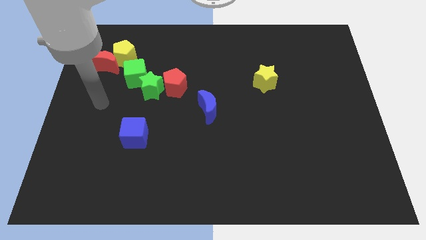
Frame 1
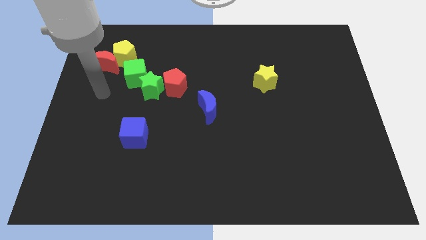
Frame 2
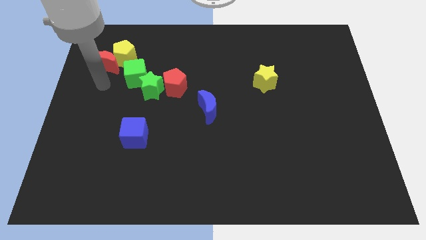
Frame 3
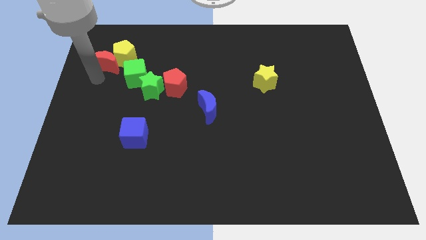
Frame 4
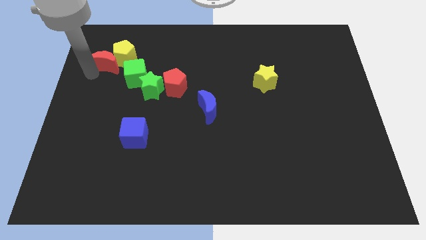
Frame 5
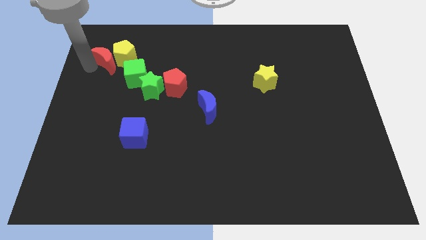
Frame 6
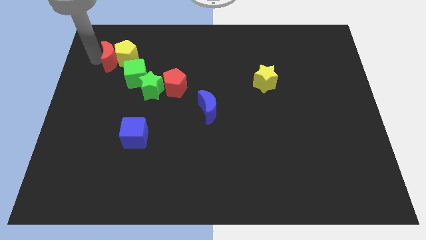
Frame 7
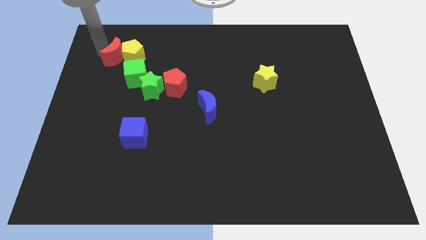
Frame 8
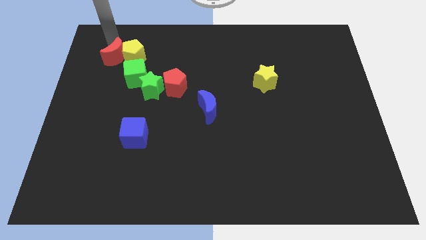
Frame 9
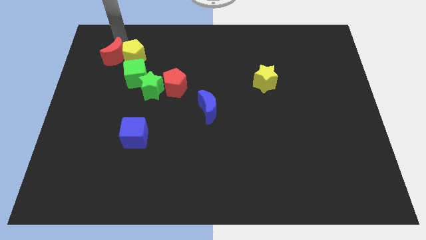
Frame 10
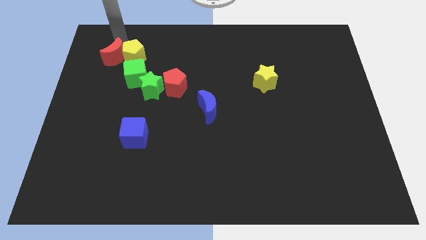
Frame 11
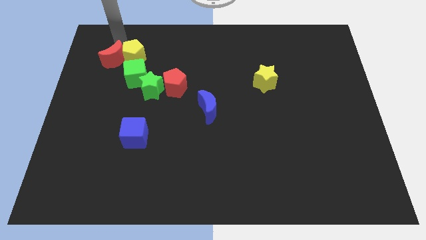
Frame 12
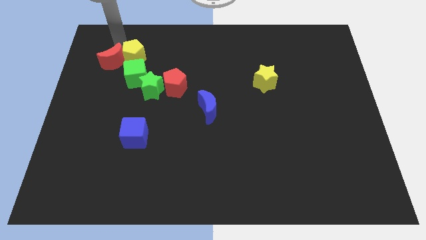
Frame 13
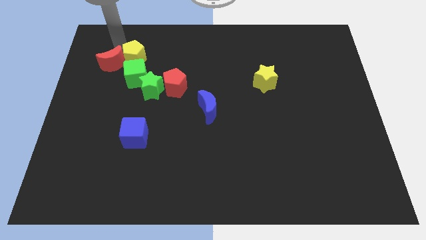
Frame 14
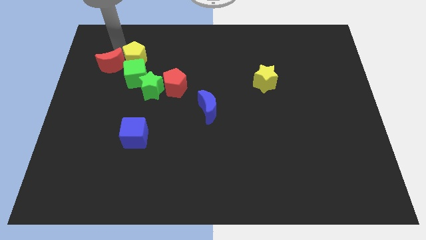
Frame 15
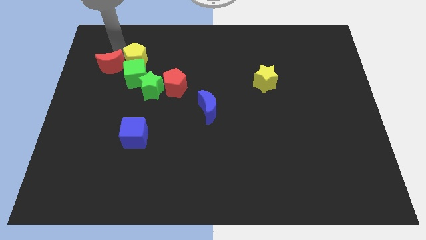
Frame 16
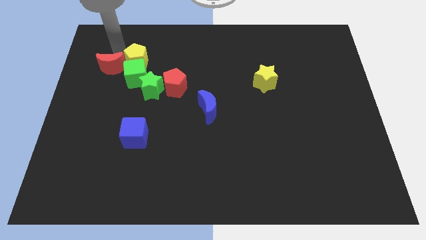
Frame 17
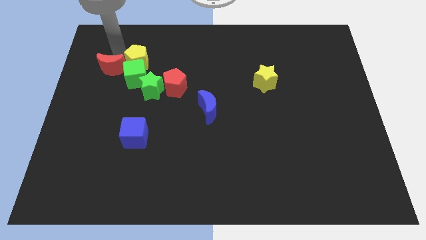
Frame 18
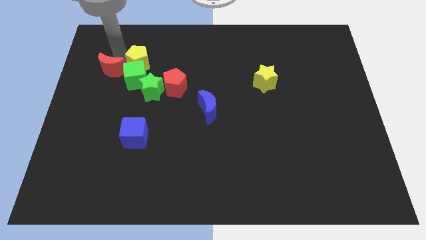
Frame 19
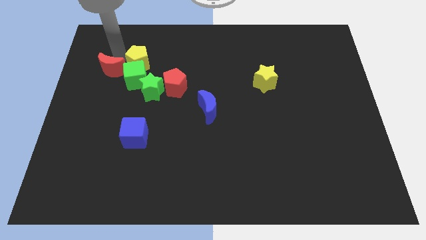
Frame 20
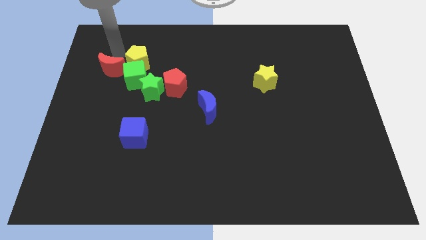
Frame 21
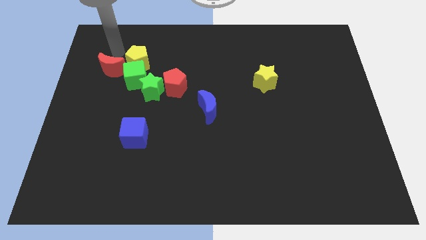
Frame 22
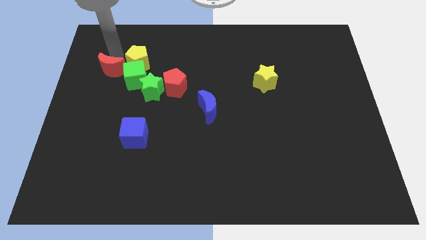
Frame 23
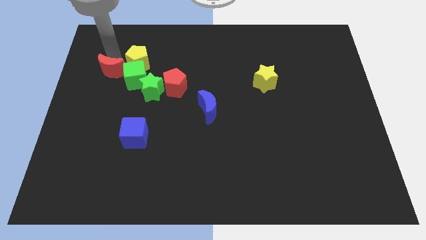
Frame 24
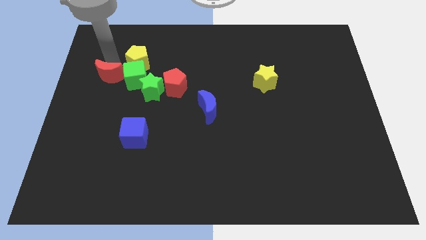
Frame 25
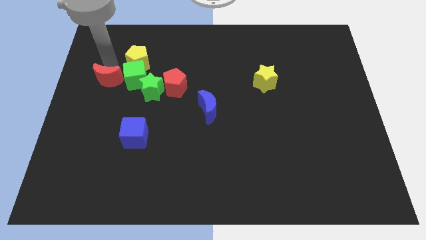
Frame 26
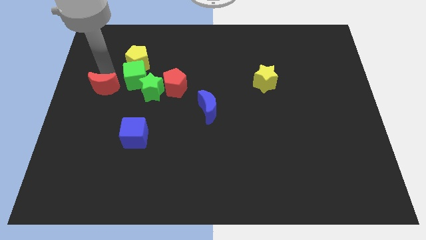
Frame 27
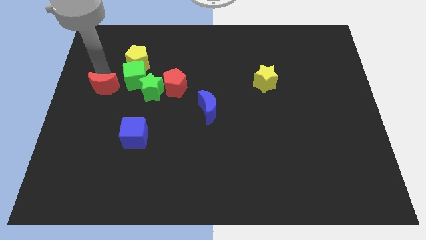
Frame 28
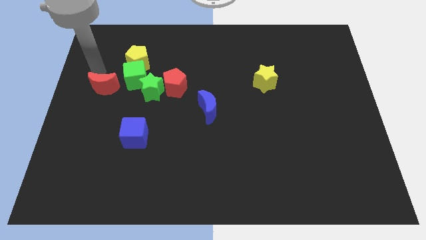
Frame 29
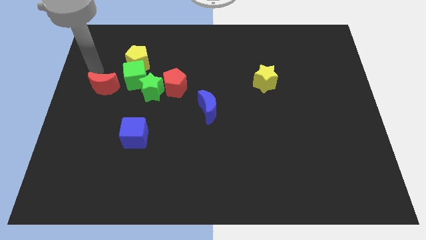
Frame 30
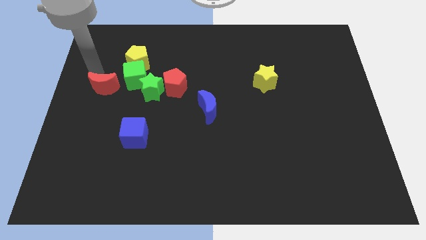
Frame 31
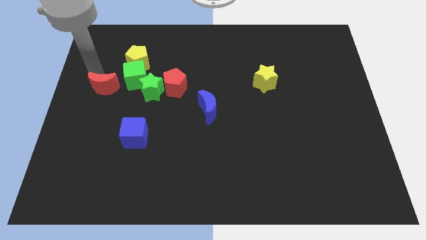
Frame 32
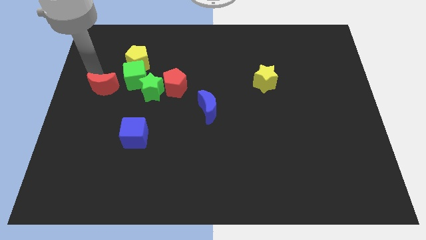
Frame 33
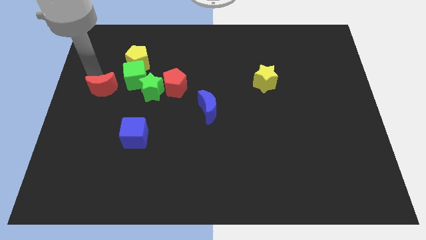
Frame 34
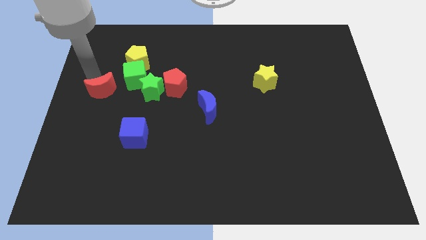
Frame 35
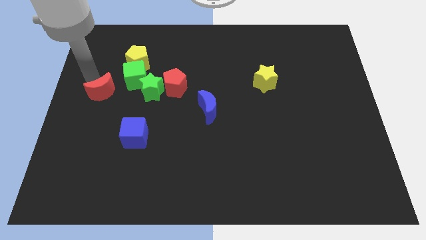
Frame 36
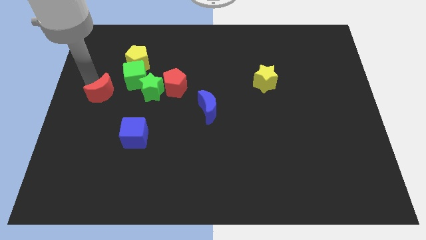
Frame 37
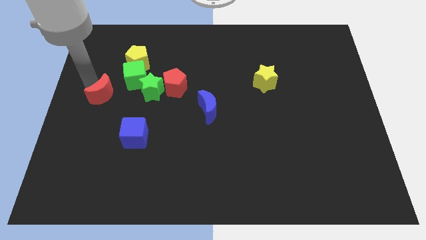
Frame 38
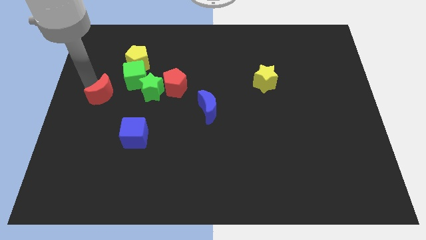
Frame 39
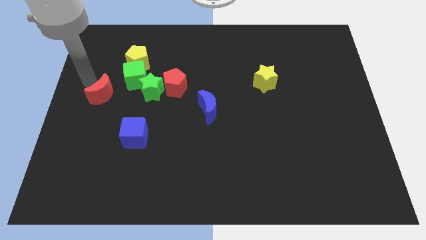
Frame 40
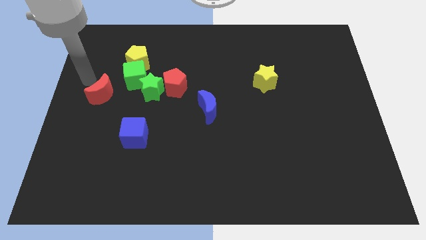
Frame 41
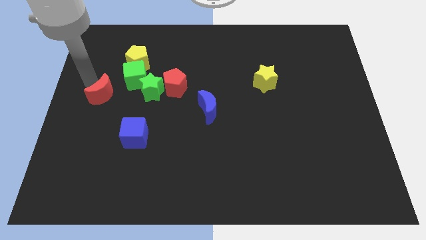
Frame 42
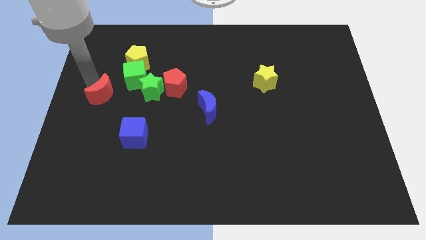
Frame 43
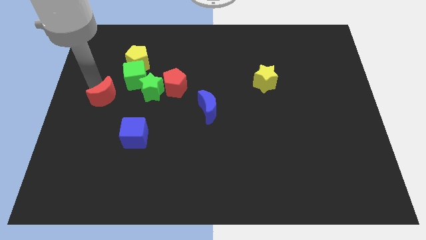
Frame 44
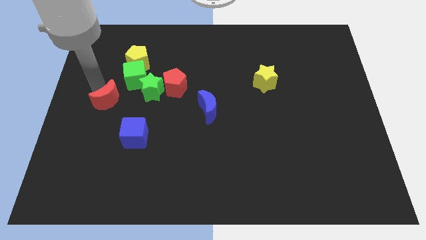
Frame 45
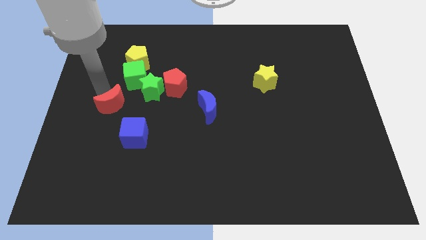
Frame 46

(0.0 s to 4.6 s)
slide the red moon diagonally up and to the left of the blue cube

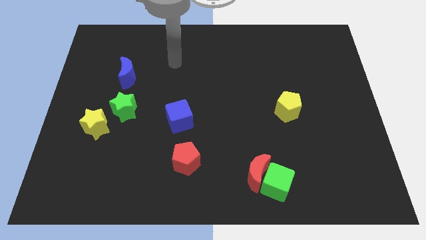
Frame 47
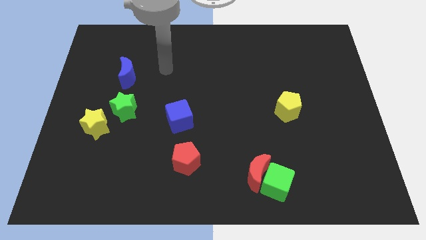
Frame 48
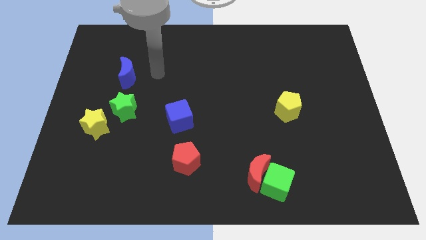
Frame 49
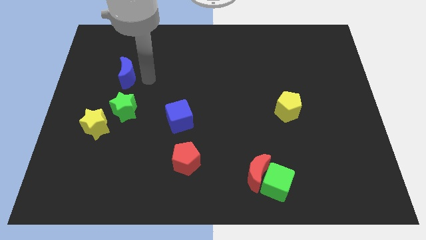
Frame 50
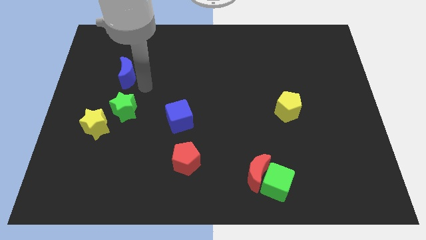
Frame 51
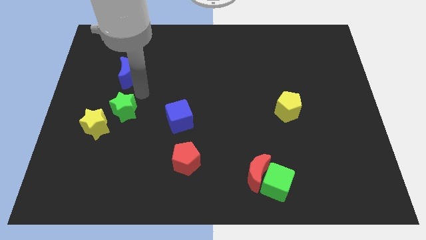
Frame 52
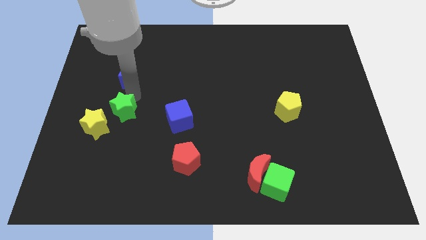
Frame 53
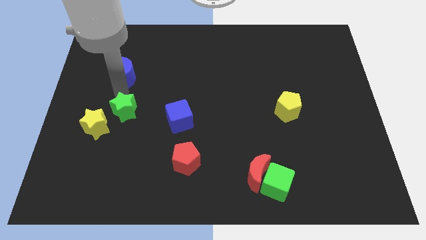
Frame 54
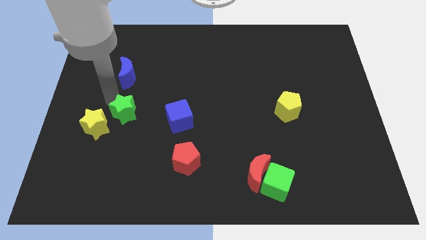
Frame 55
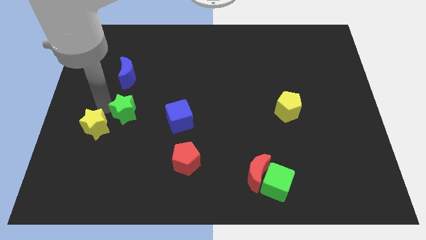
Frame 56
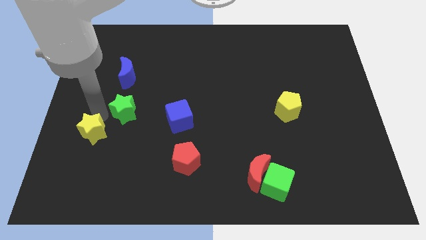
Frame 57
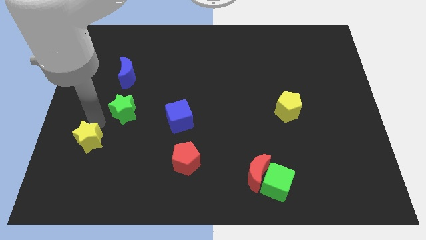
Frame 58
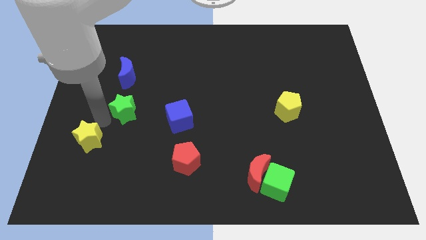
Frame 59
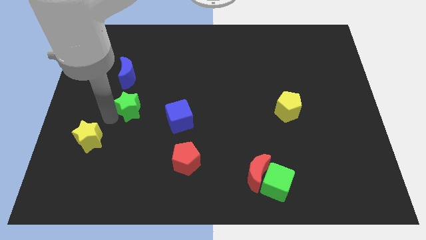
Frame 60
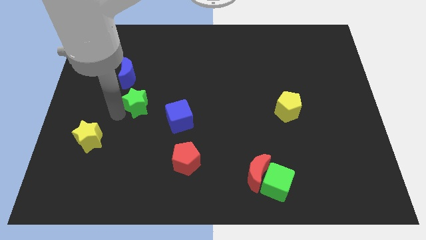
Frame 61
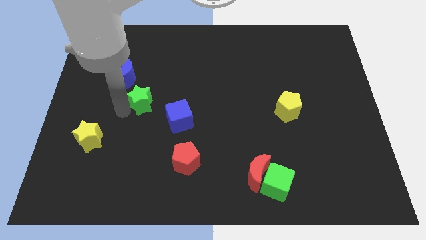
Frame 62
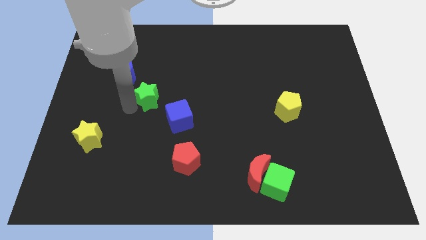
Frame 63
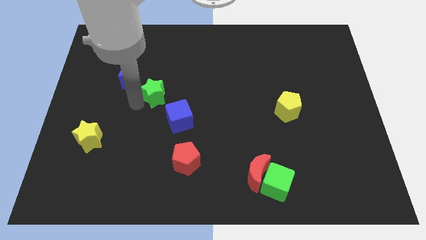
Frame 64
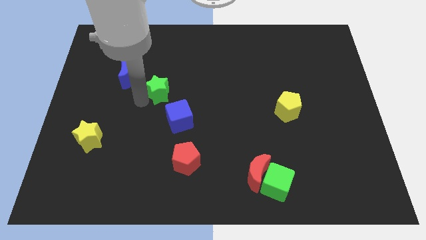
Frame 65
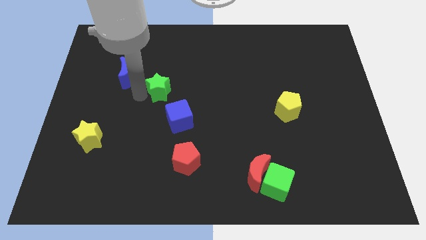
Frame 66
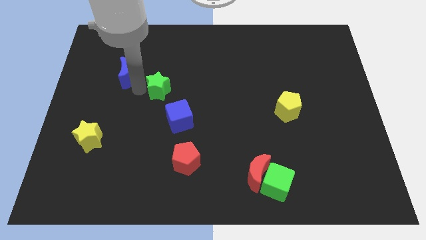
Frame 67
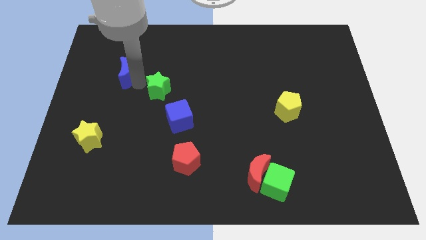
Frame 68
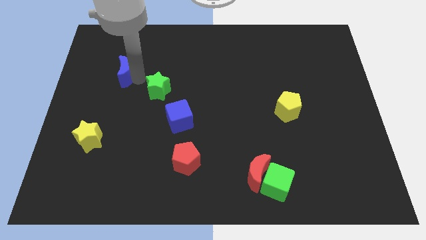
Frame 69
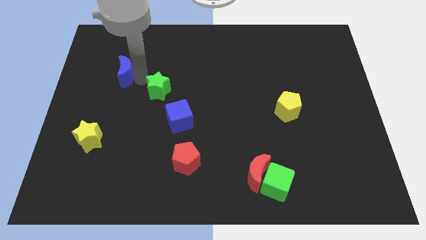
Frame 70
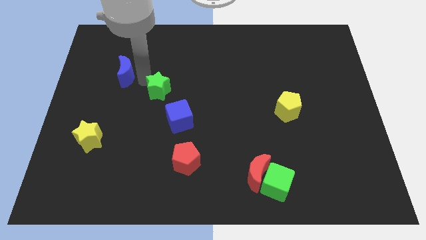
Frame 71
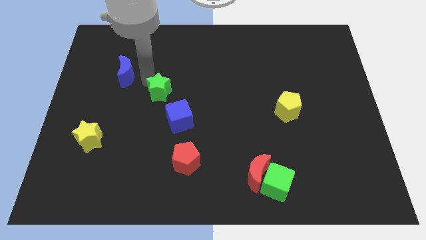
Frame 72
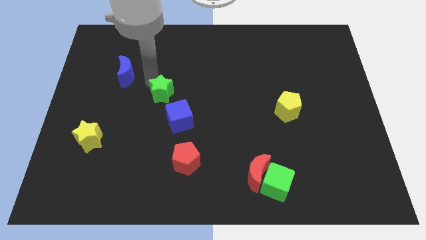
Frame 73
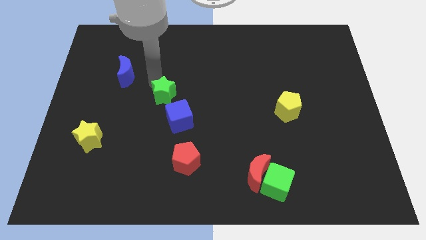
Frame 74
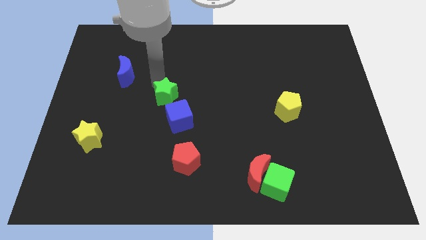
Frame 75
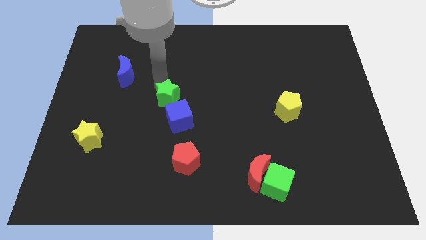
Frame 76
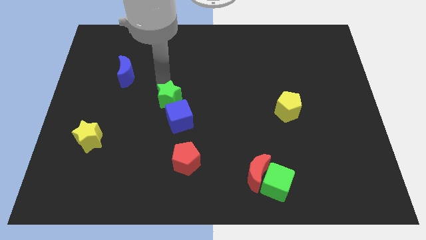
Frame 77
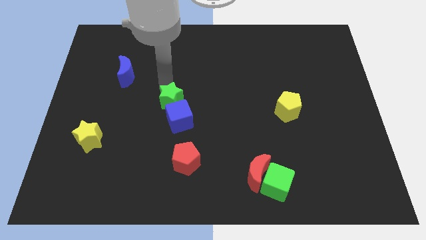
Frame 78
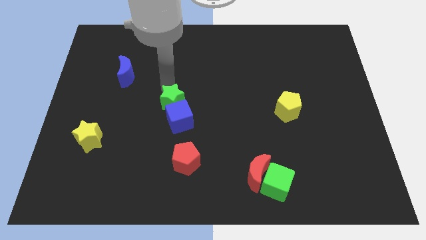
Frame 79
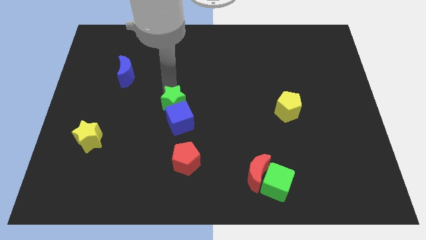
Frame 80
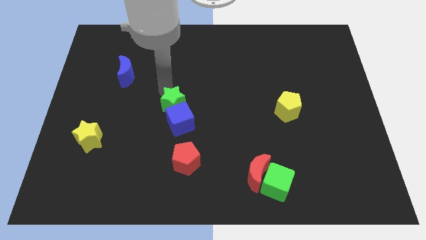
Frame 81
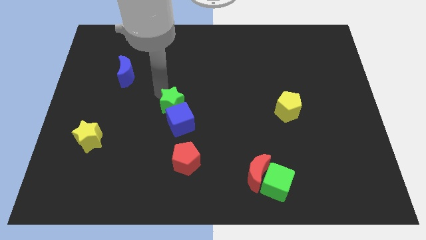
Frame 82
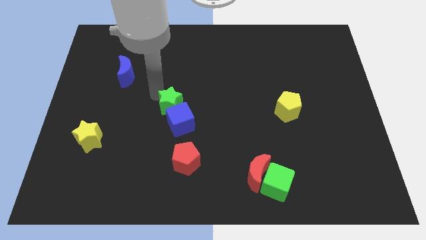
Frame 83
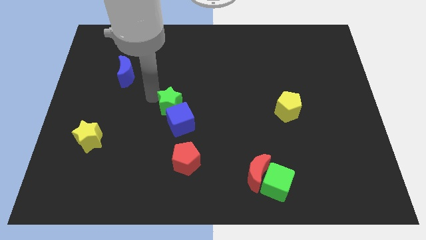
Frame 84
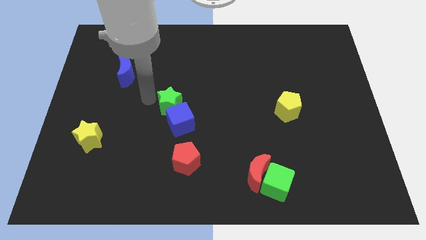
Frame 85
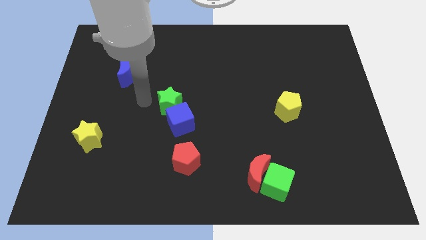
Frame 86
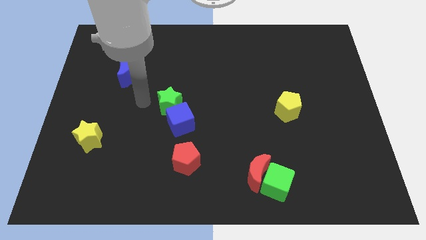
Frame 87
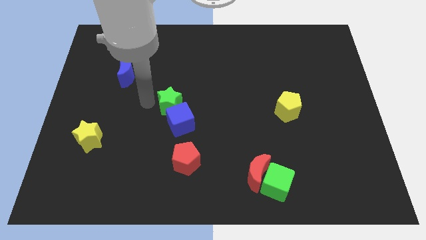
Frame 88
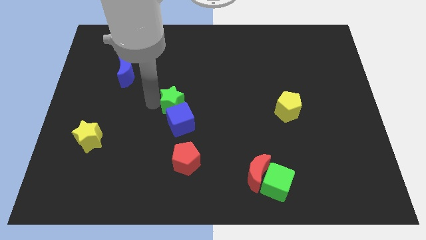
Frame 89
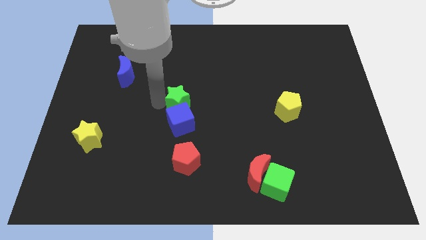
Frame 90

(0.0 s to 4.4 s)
push the green star above the red pentagon
